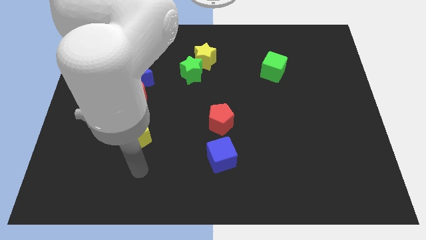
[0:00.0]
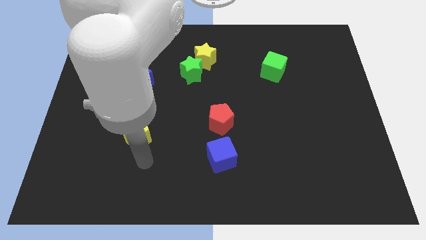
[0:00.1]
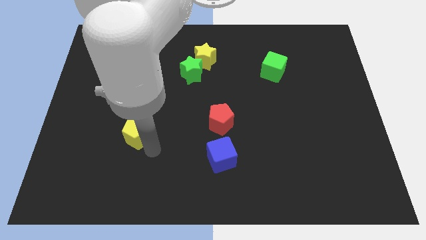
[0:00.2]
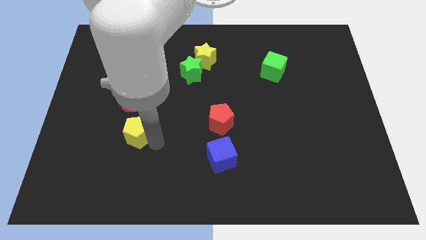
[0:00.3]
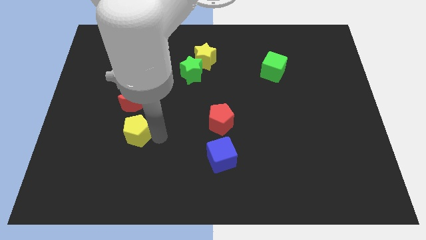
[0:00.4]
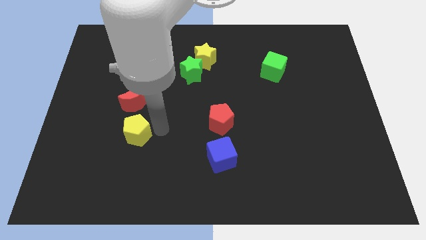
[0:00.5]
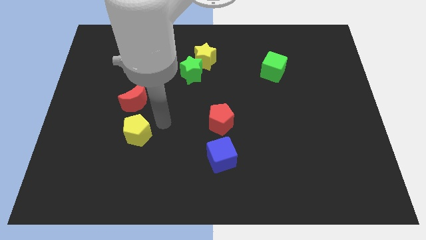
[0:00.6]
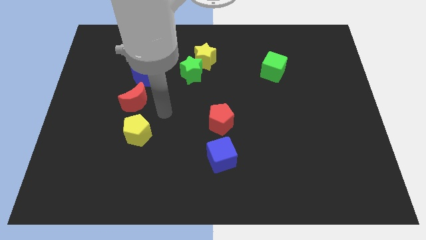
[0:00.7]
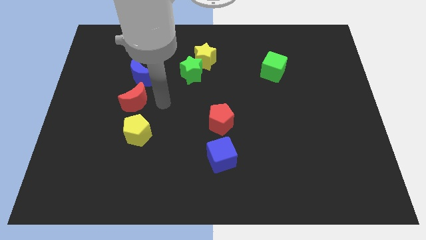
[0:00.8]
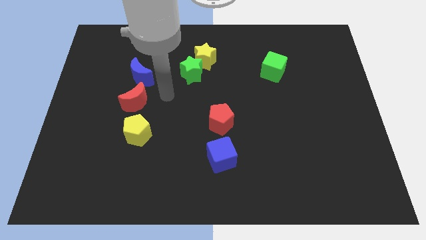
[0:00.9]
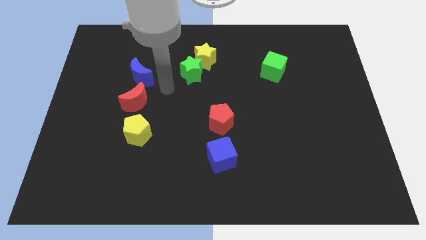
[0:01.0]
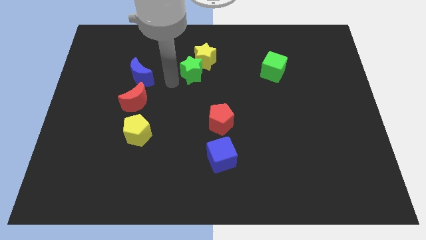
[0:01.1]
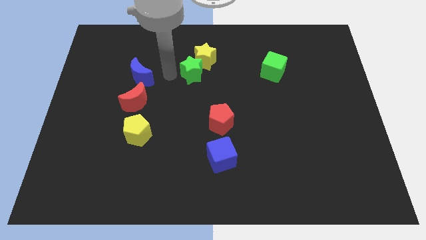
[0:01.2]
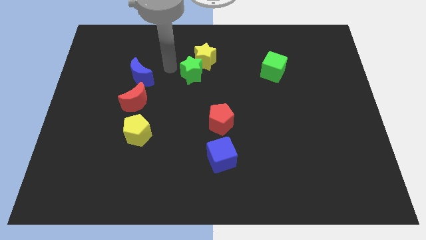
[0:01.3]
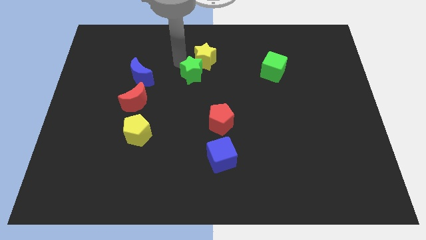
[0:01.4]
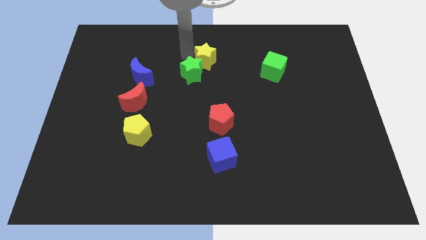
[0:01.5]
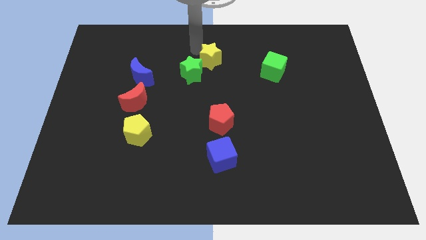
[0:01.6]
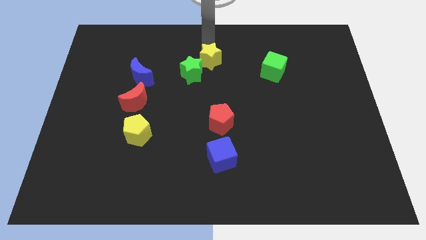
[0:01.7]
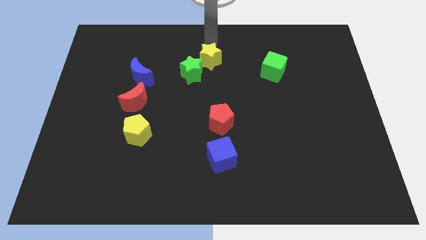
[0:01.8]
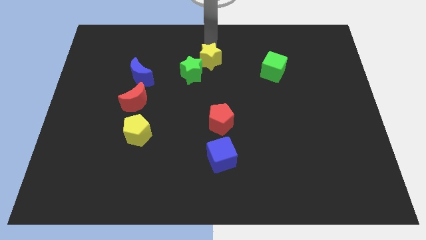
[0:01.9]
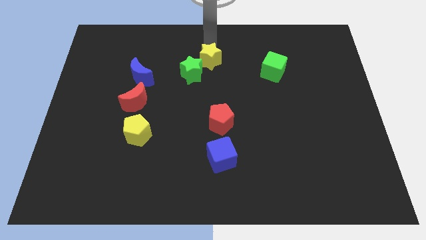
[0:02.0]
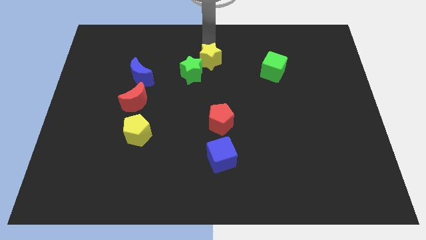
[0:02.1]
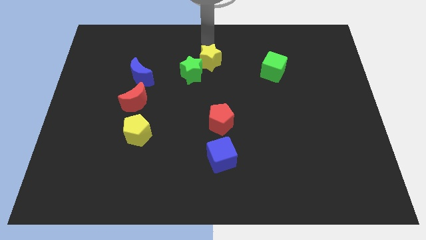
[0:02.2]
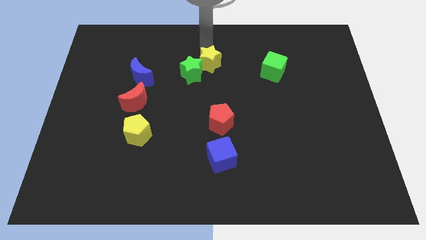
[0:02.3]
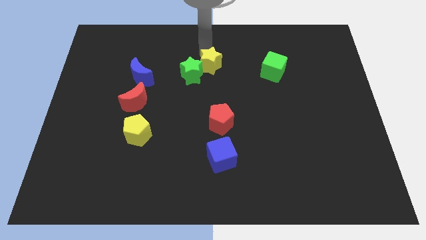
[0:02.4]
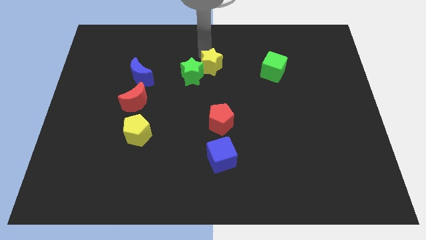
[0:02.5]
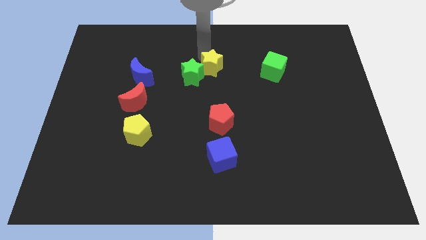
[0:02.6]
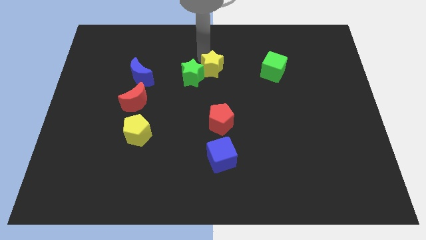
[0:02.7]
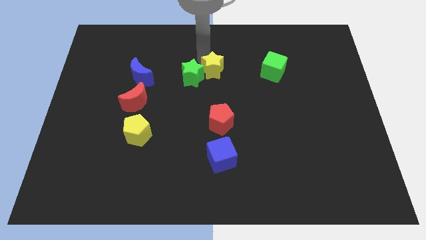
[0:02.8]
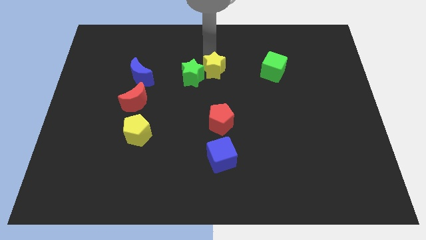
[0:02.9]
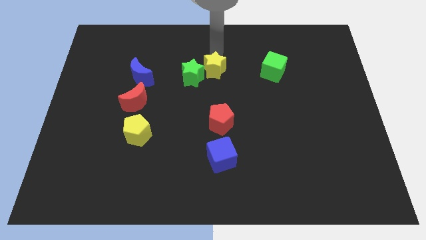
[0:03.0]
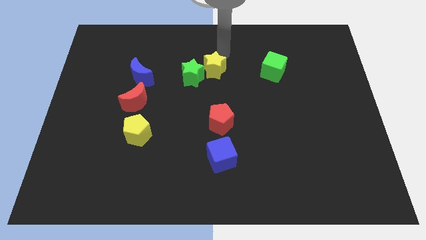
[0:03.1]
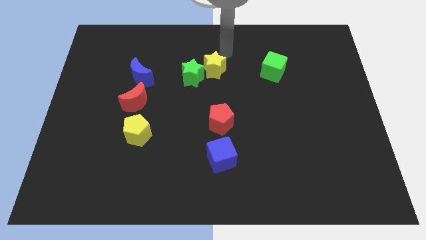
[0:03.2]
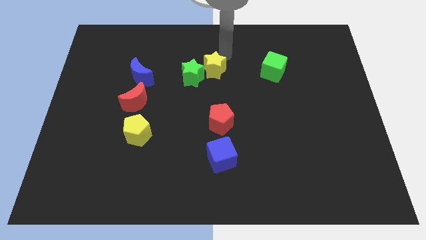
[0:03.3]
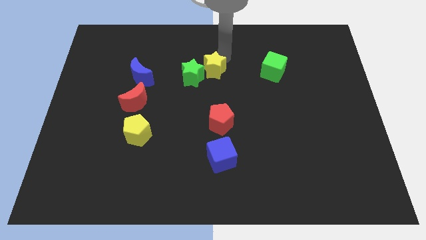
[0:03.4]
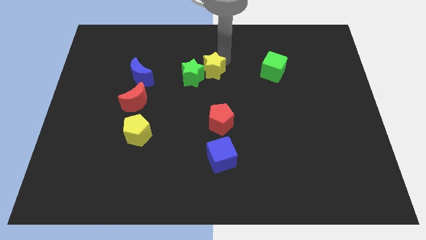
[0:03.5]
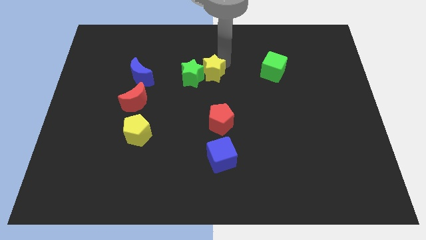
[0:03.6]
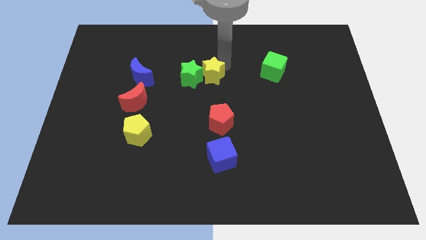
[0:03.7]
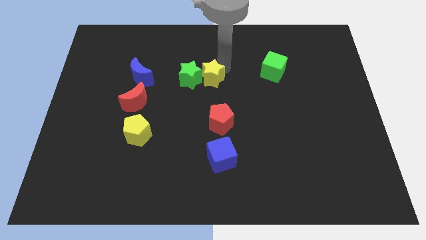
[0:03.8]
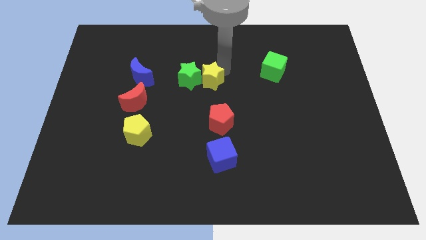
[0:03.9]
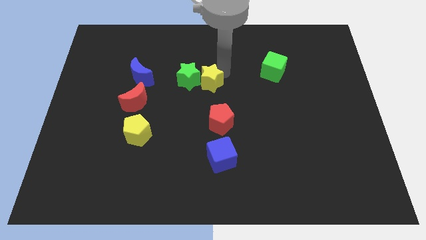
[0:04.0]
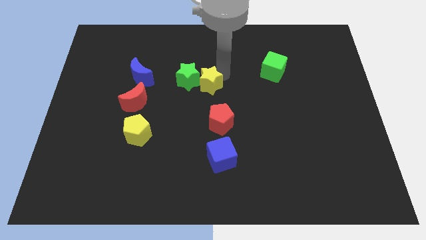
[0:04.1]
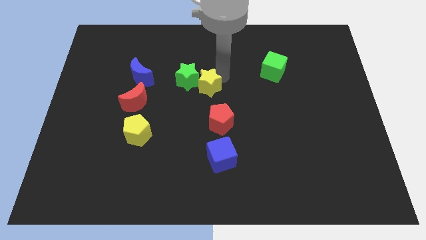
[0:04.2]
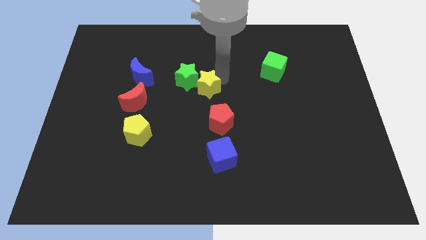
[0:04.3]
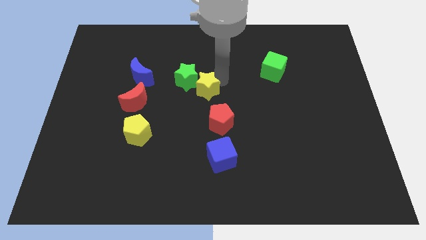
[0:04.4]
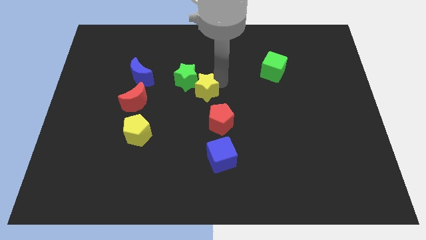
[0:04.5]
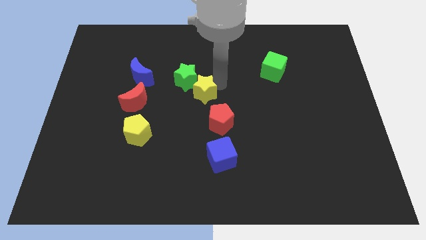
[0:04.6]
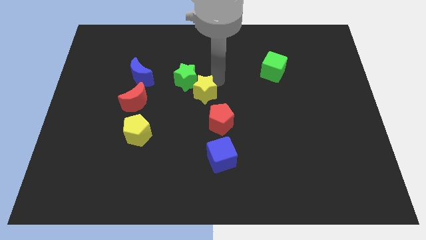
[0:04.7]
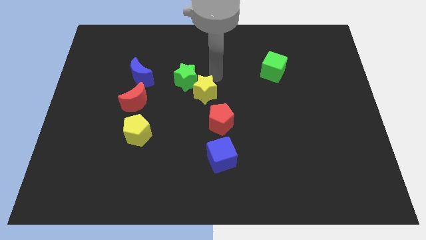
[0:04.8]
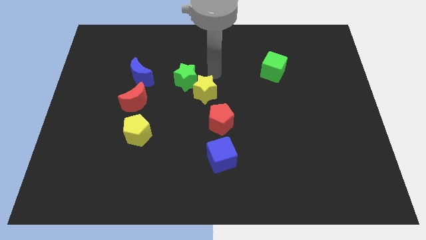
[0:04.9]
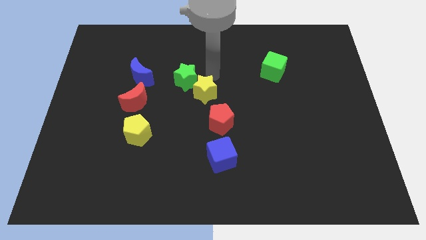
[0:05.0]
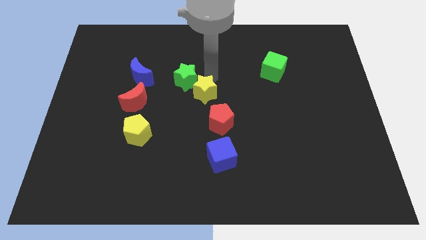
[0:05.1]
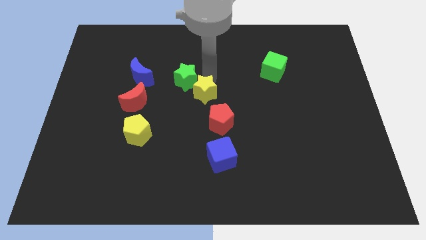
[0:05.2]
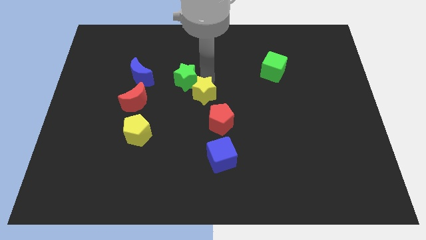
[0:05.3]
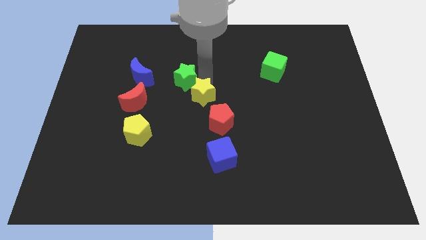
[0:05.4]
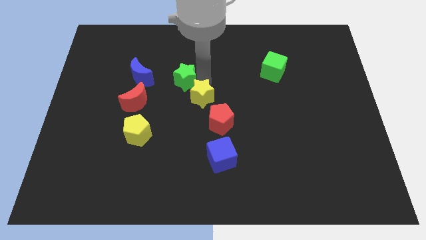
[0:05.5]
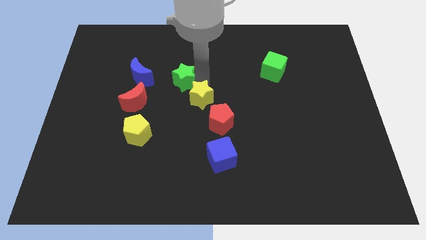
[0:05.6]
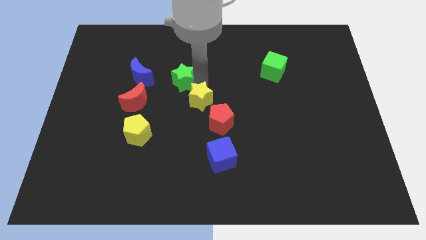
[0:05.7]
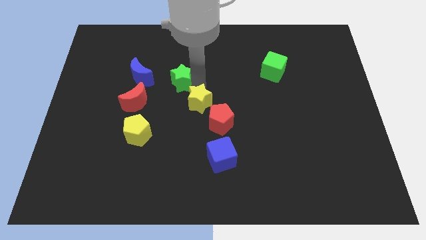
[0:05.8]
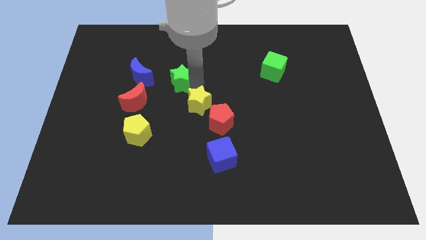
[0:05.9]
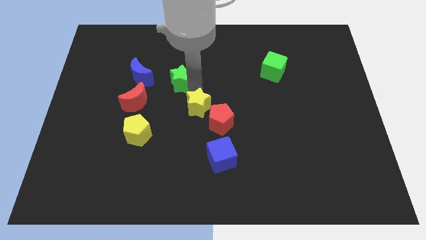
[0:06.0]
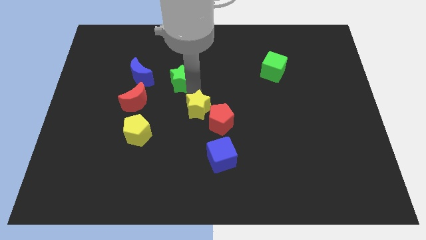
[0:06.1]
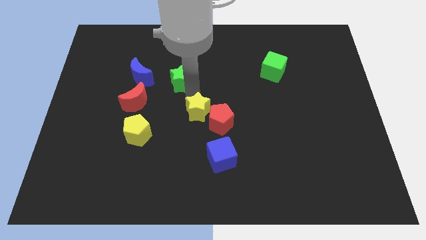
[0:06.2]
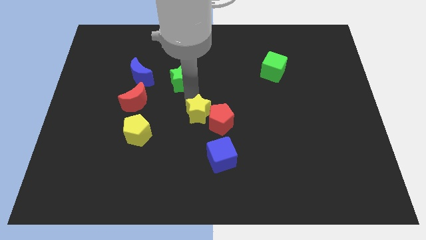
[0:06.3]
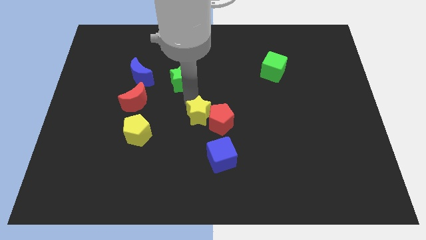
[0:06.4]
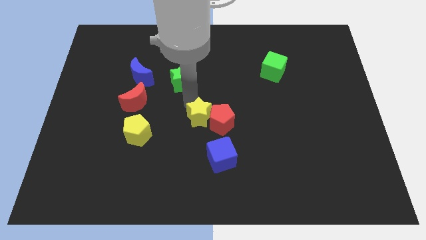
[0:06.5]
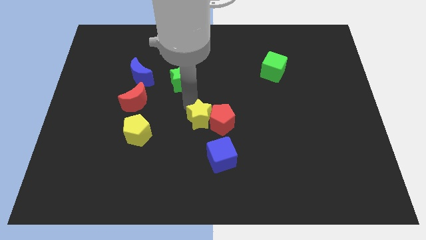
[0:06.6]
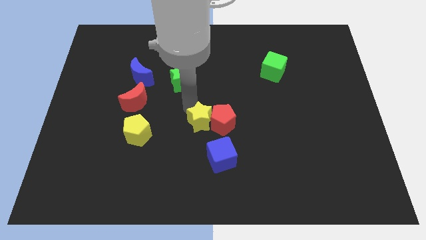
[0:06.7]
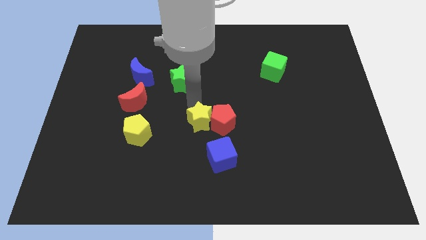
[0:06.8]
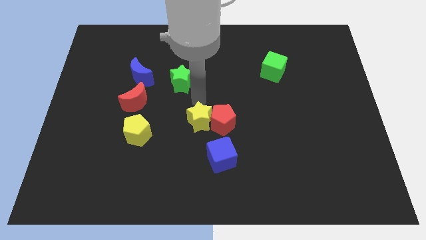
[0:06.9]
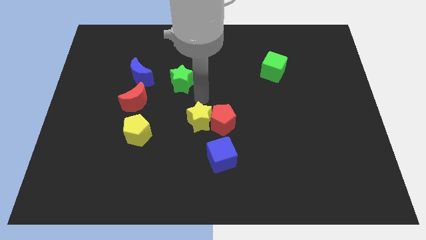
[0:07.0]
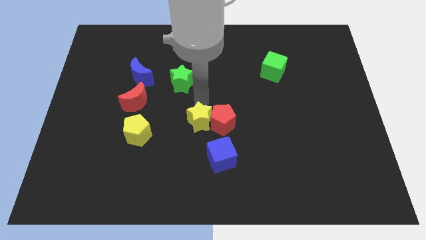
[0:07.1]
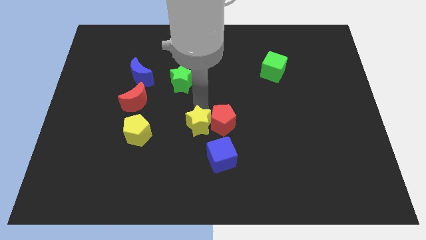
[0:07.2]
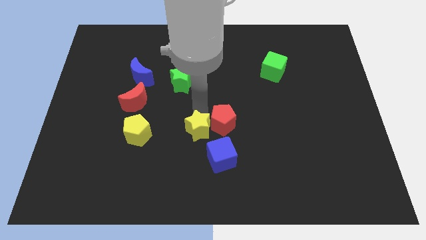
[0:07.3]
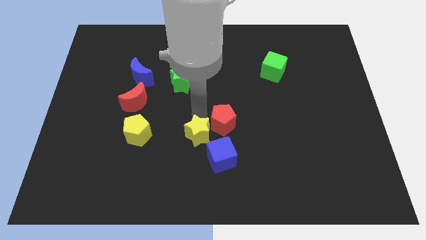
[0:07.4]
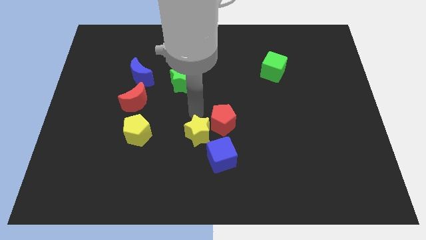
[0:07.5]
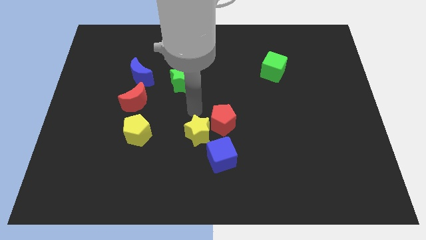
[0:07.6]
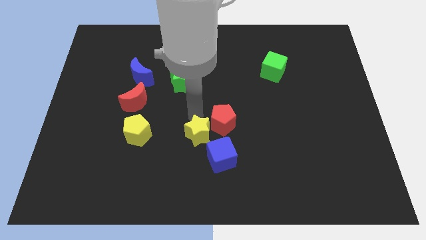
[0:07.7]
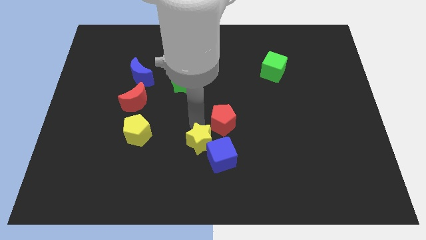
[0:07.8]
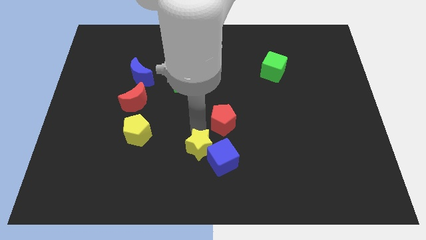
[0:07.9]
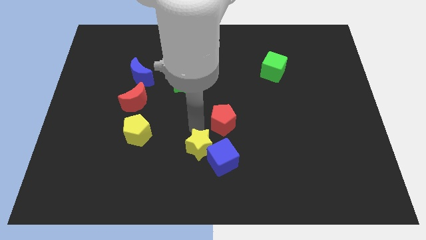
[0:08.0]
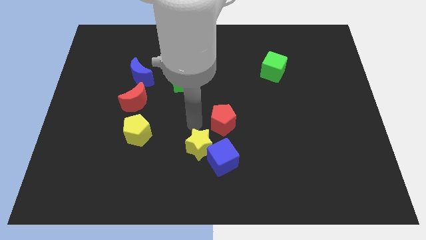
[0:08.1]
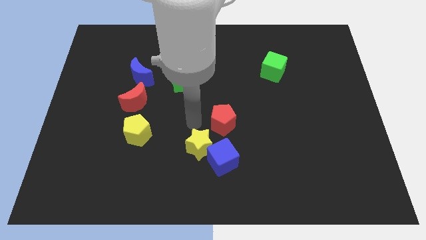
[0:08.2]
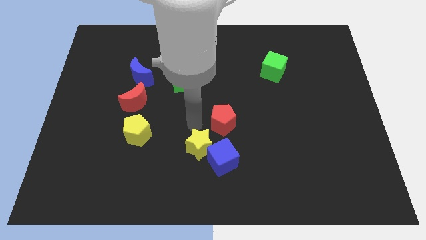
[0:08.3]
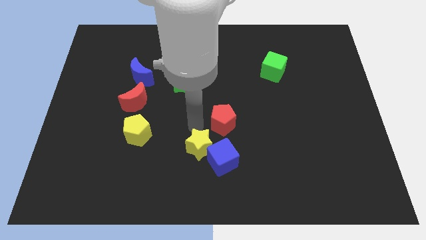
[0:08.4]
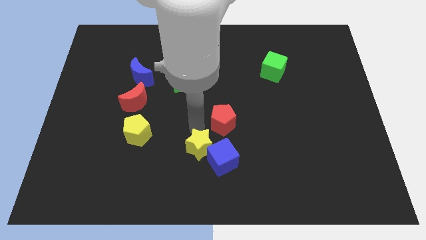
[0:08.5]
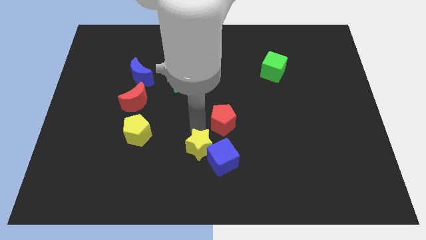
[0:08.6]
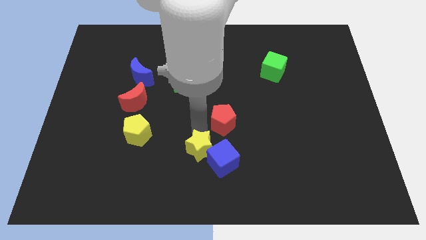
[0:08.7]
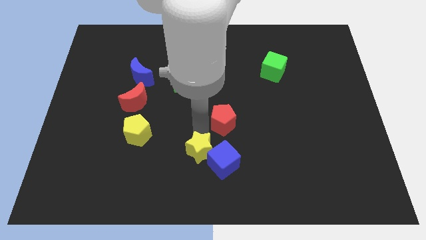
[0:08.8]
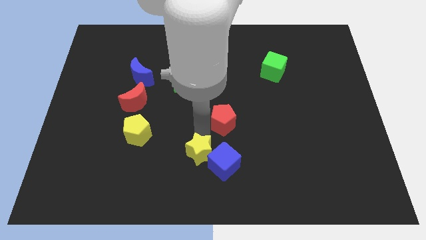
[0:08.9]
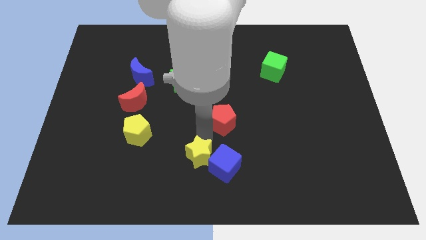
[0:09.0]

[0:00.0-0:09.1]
move the yellow star to the bottom
